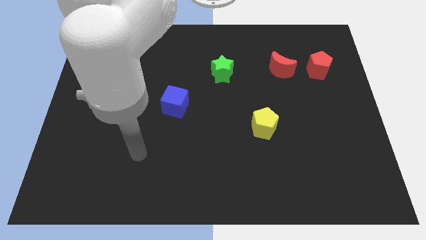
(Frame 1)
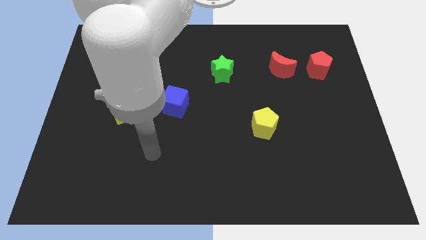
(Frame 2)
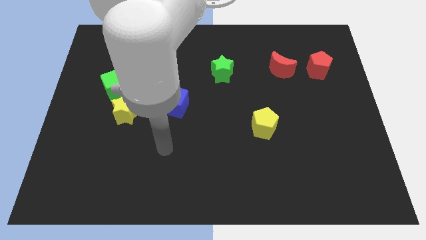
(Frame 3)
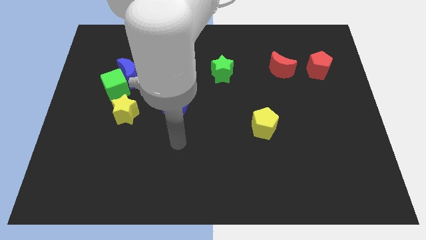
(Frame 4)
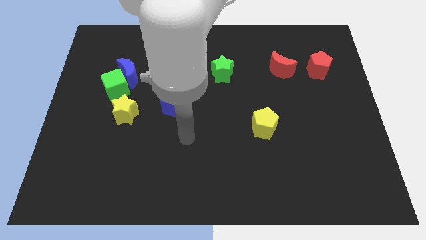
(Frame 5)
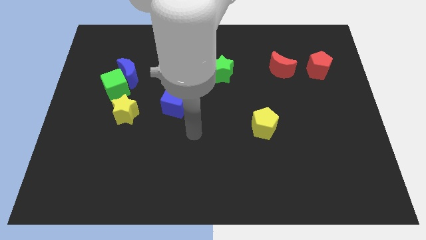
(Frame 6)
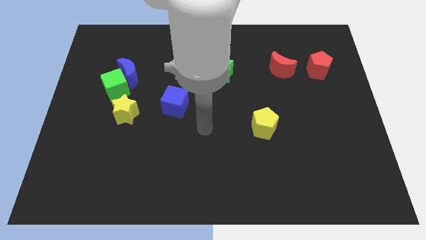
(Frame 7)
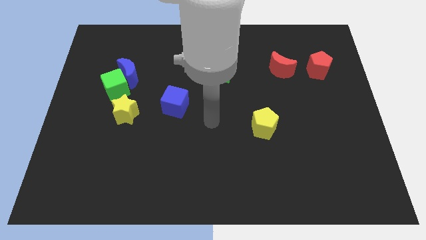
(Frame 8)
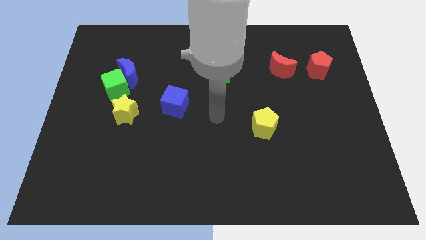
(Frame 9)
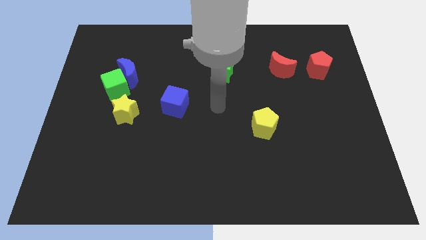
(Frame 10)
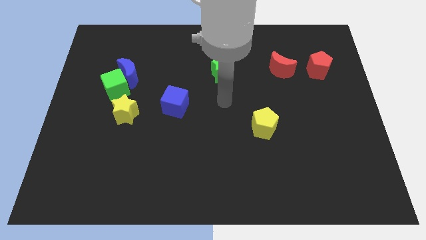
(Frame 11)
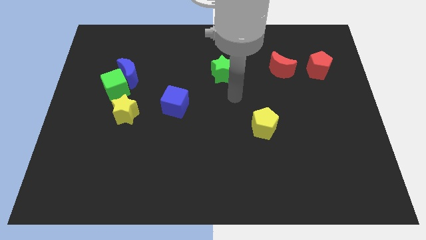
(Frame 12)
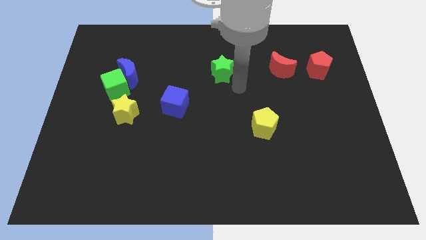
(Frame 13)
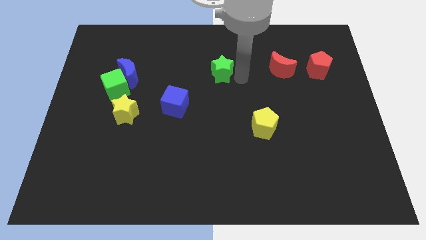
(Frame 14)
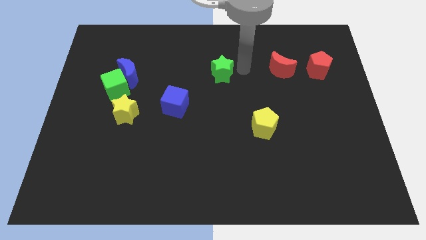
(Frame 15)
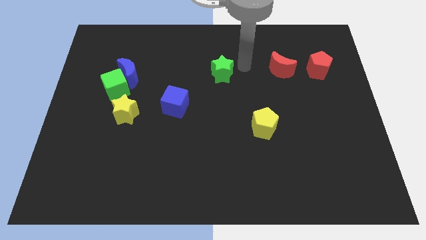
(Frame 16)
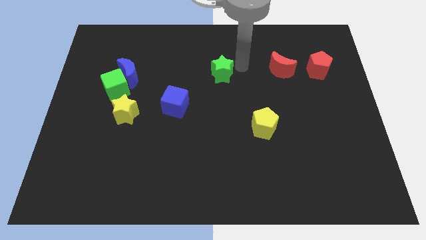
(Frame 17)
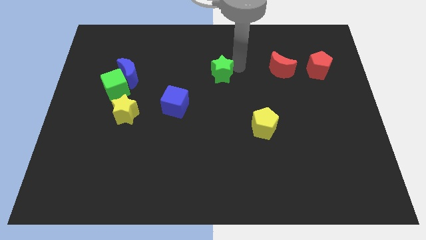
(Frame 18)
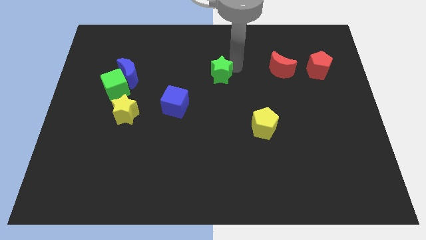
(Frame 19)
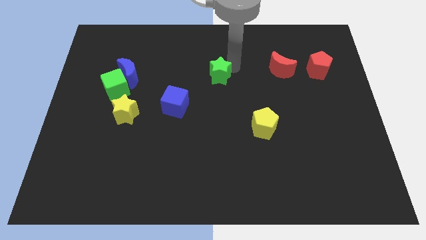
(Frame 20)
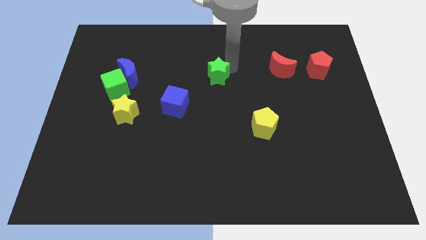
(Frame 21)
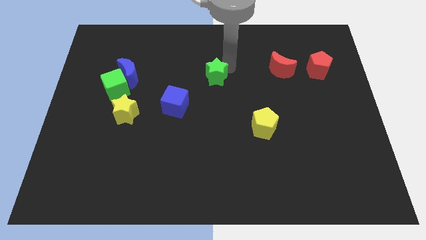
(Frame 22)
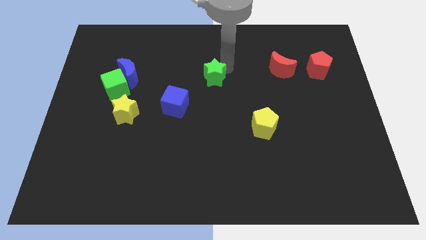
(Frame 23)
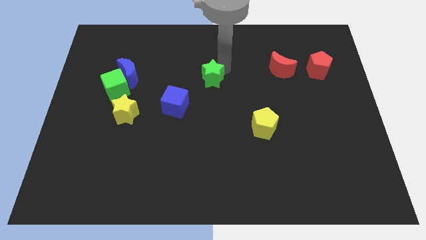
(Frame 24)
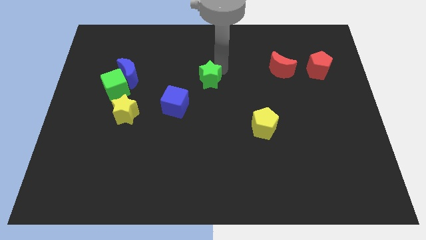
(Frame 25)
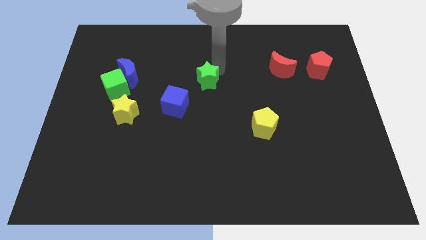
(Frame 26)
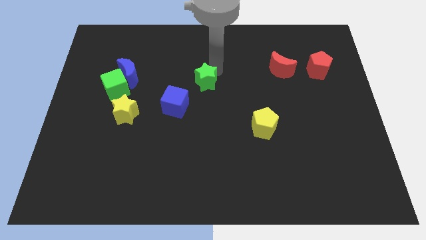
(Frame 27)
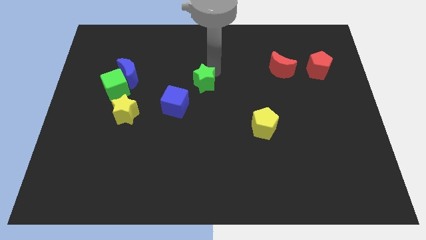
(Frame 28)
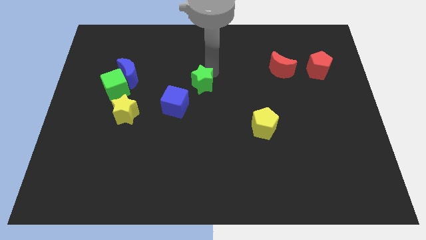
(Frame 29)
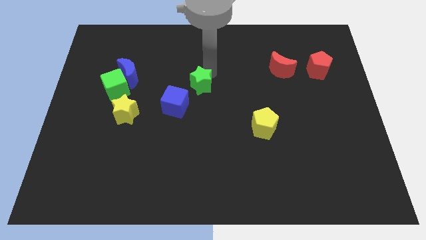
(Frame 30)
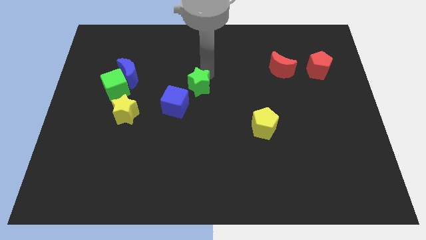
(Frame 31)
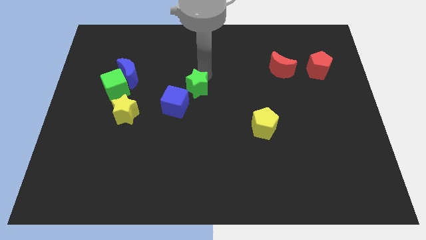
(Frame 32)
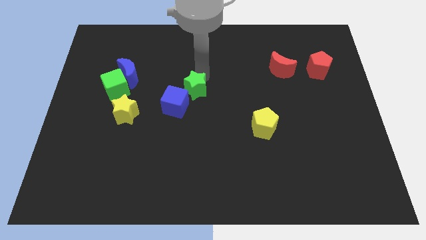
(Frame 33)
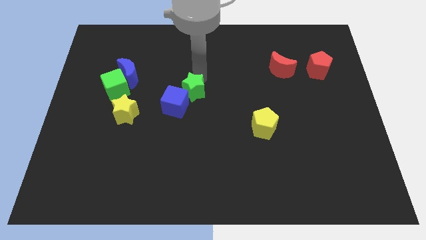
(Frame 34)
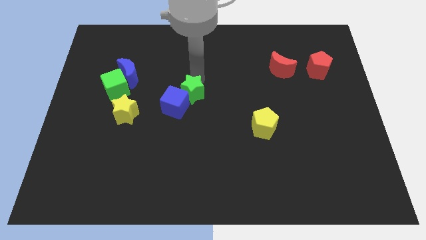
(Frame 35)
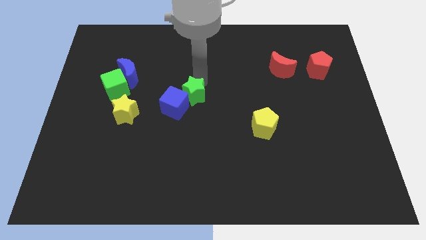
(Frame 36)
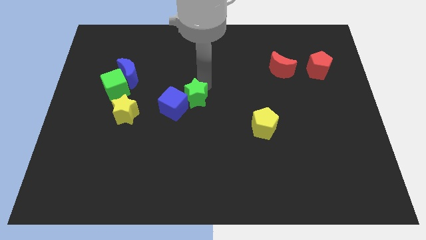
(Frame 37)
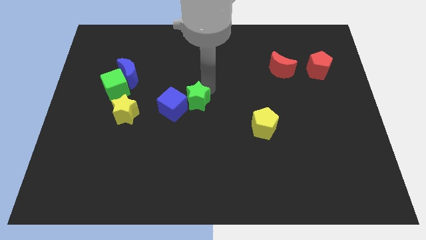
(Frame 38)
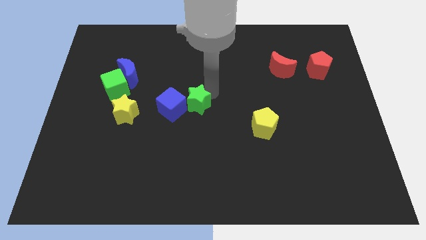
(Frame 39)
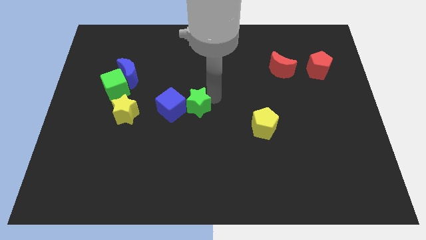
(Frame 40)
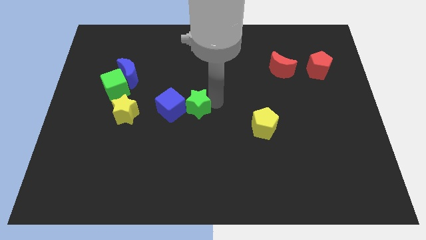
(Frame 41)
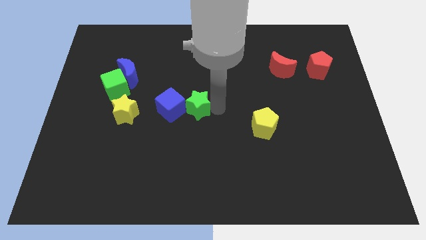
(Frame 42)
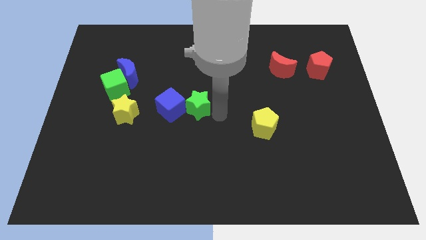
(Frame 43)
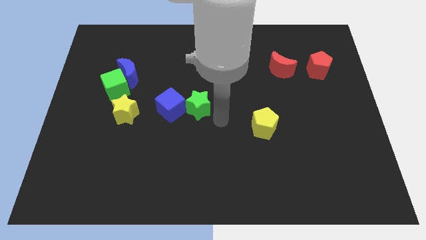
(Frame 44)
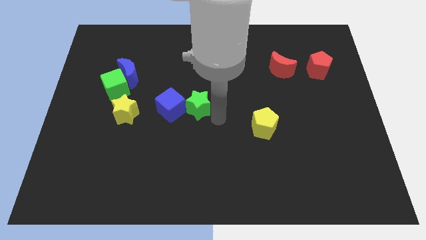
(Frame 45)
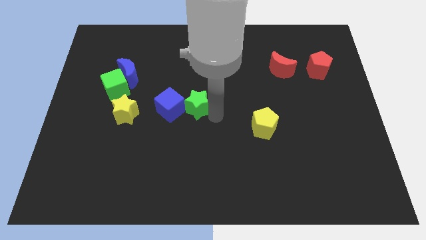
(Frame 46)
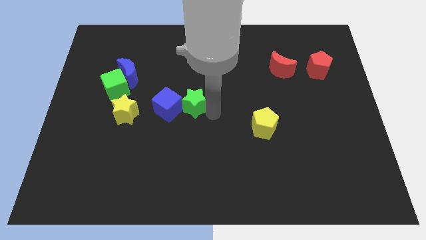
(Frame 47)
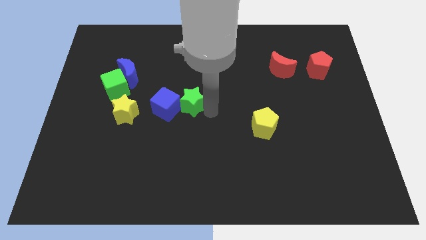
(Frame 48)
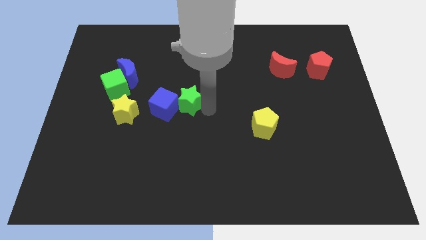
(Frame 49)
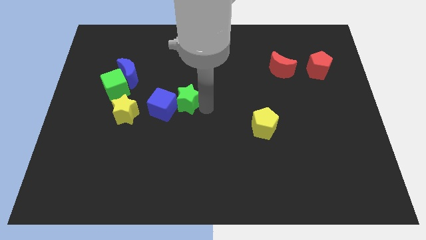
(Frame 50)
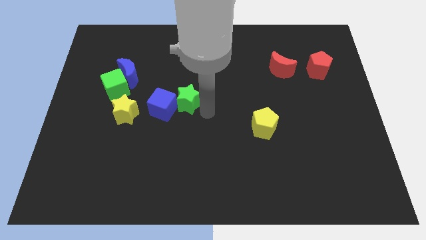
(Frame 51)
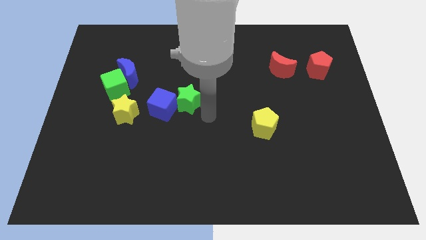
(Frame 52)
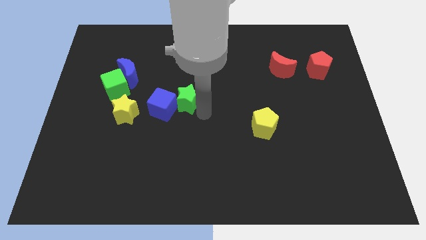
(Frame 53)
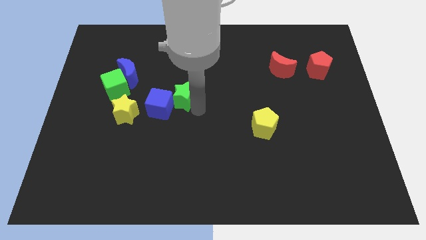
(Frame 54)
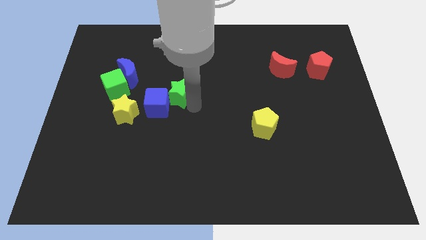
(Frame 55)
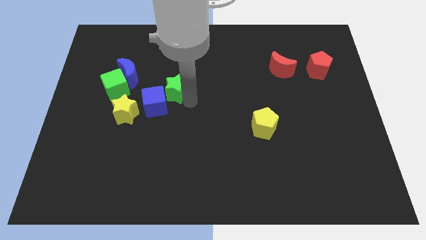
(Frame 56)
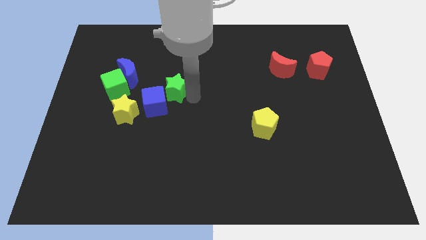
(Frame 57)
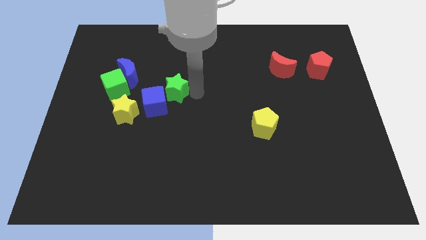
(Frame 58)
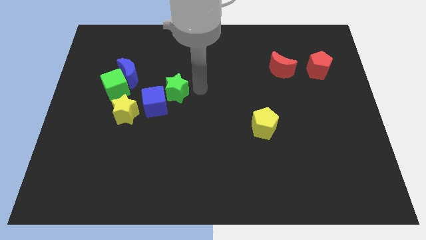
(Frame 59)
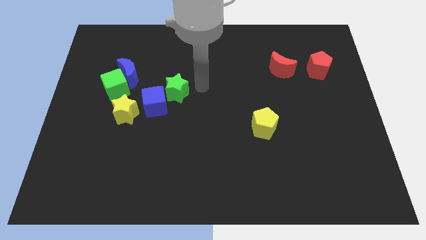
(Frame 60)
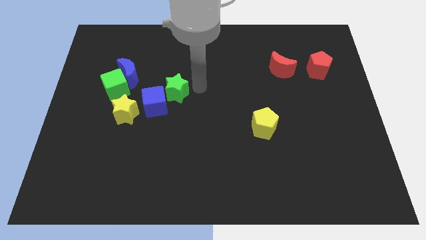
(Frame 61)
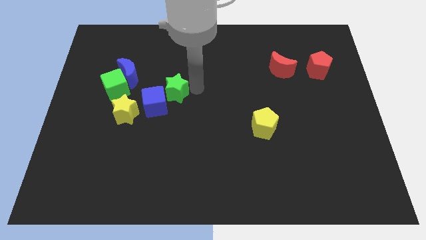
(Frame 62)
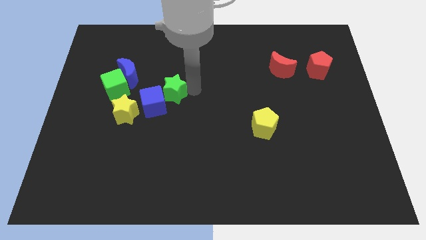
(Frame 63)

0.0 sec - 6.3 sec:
move the green star diagonally up and to the right of the yellow star
